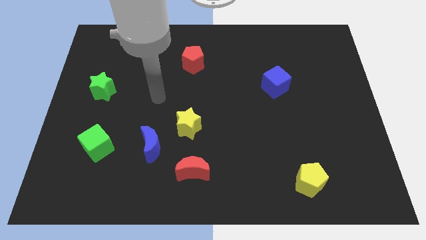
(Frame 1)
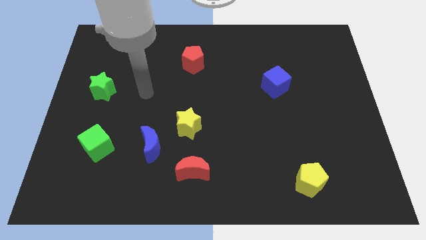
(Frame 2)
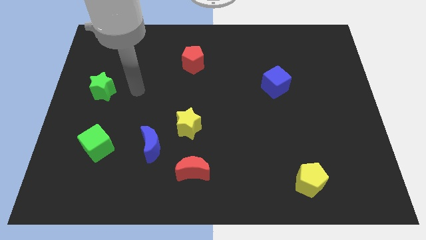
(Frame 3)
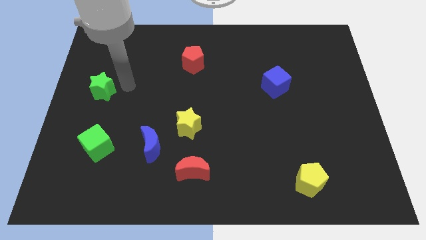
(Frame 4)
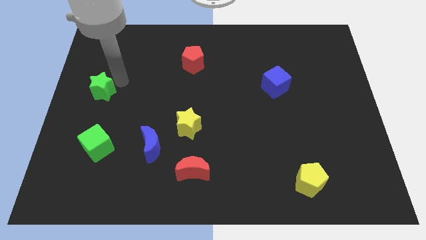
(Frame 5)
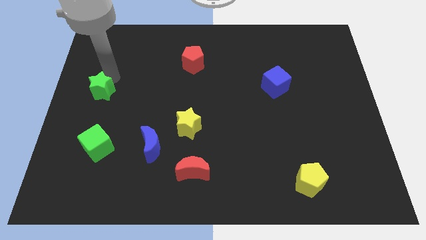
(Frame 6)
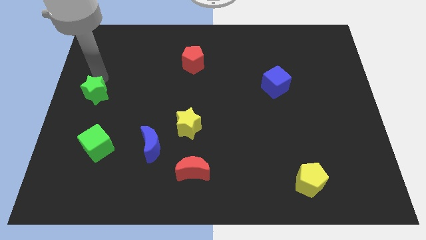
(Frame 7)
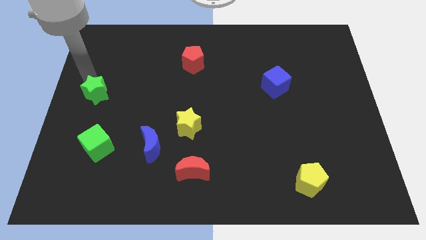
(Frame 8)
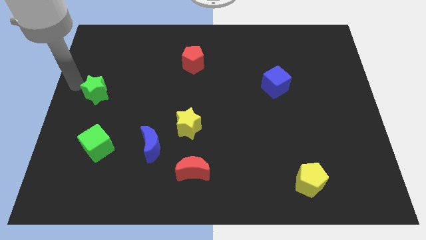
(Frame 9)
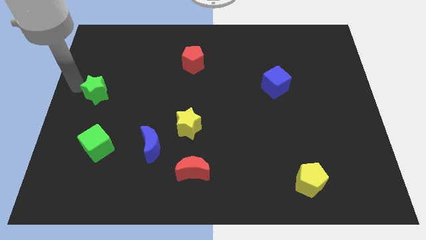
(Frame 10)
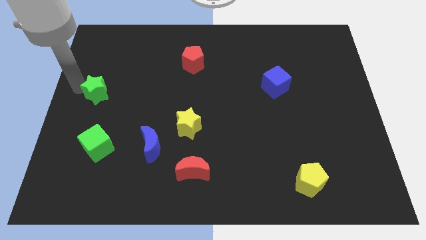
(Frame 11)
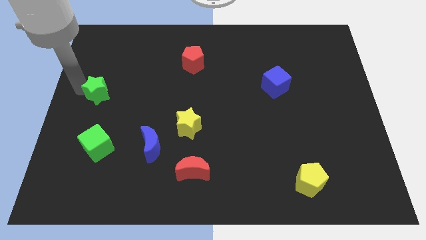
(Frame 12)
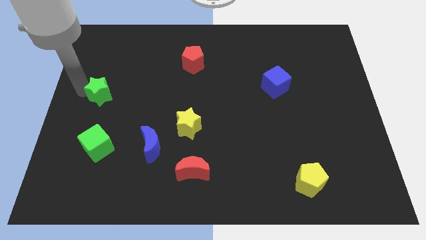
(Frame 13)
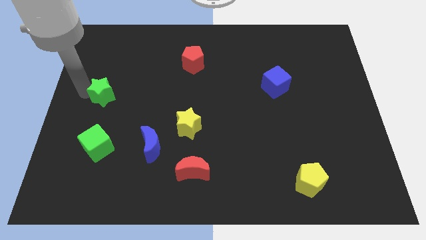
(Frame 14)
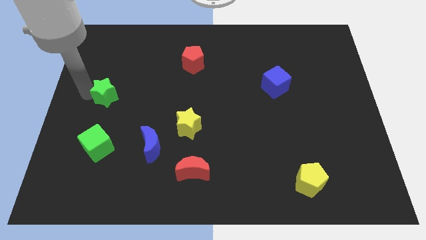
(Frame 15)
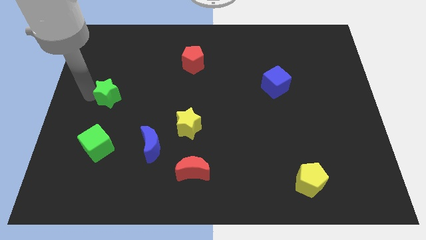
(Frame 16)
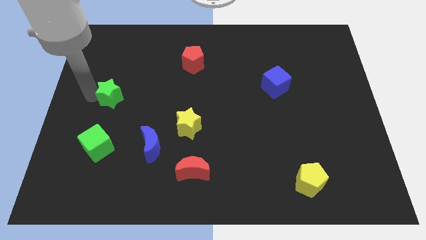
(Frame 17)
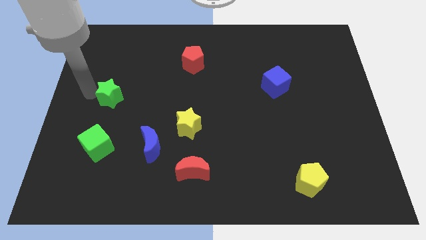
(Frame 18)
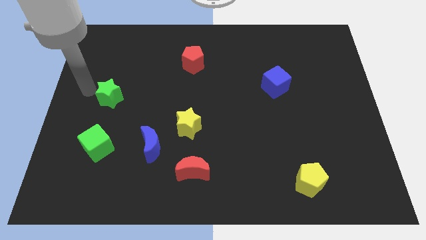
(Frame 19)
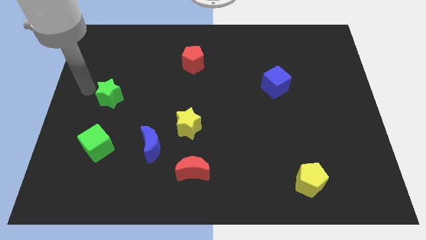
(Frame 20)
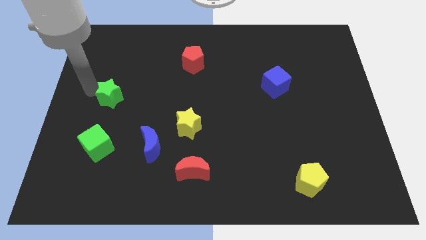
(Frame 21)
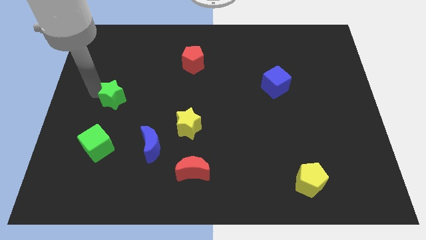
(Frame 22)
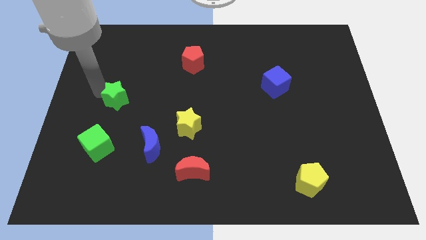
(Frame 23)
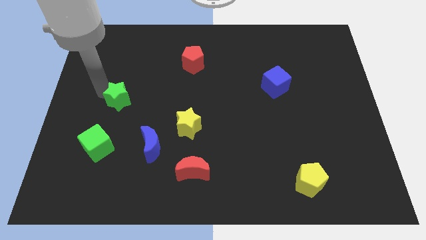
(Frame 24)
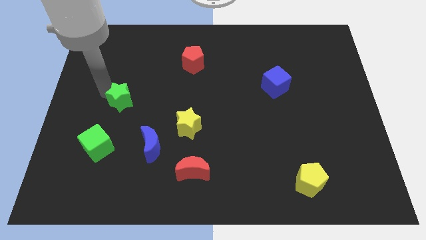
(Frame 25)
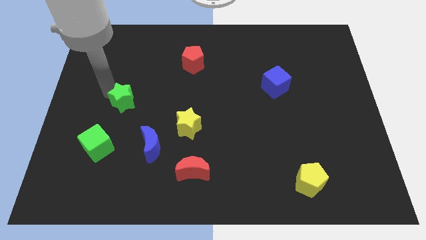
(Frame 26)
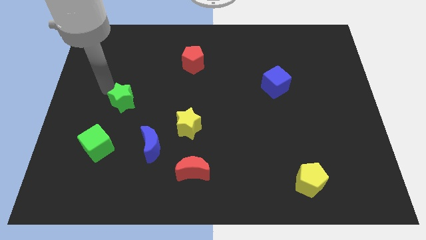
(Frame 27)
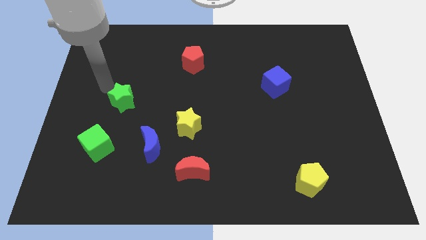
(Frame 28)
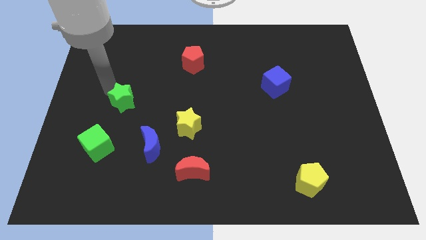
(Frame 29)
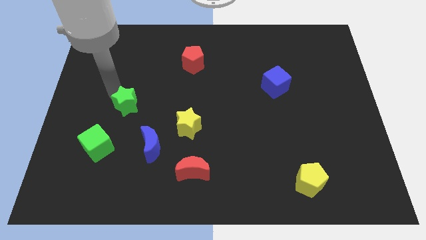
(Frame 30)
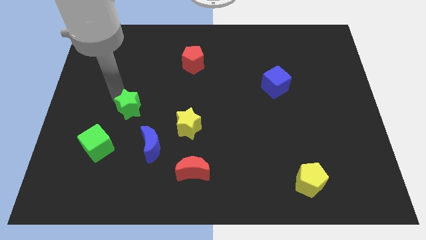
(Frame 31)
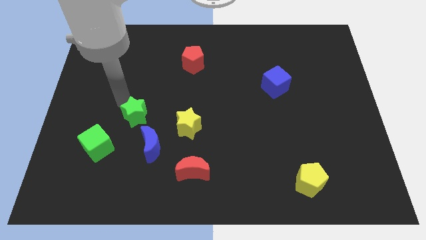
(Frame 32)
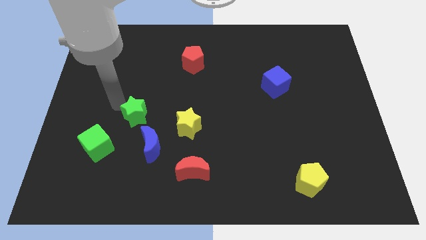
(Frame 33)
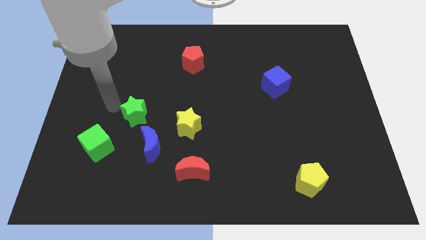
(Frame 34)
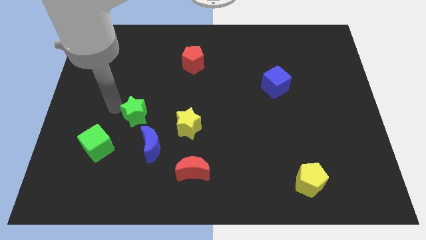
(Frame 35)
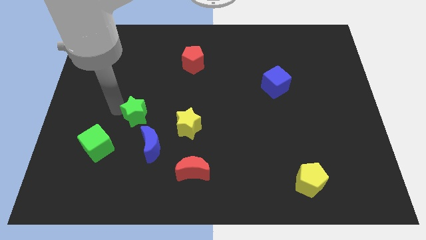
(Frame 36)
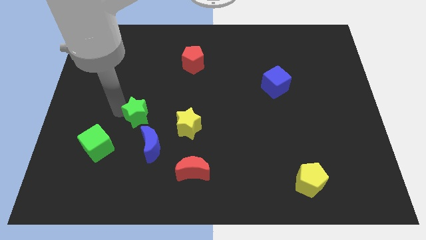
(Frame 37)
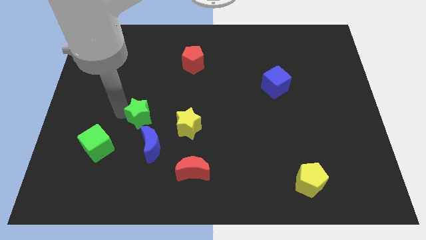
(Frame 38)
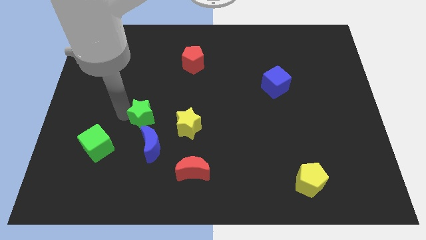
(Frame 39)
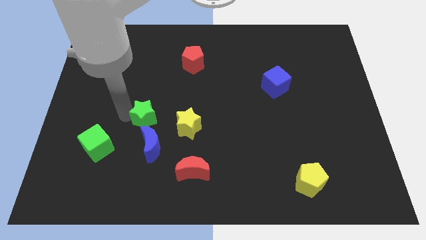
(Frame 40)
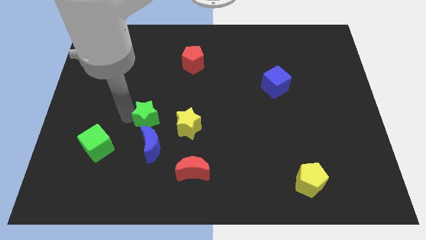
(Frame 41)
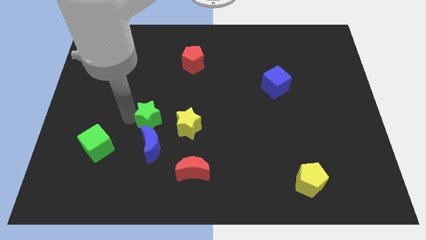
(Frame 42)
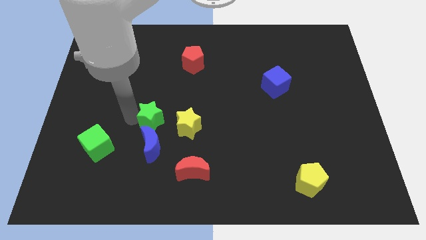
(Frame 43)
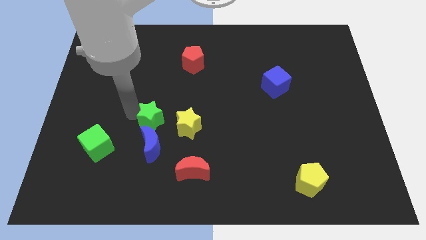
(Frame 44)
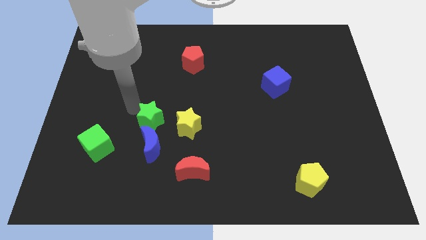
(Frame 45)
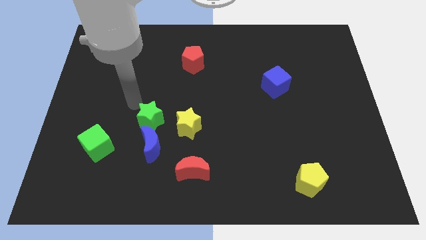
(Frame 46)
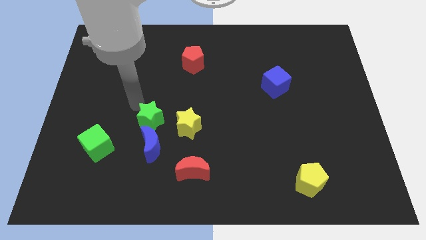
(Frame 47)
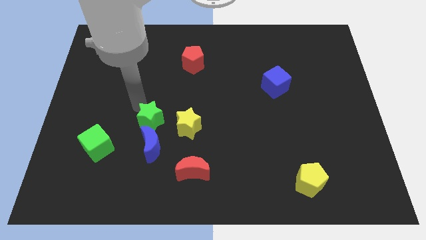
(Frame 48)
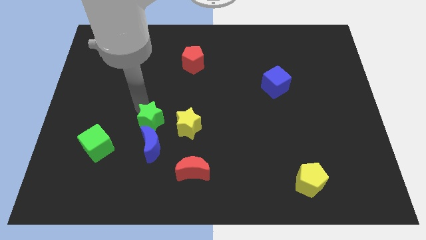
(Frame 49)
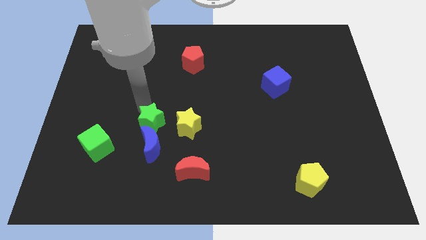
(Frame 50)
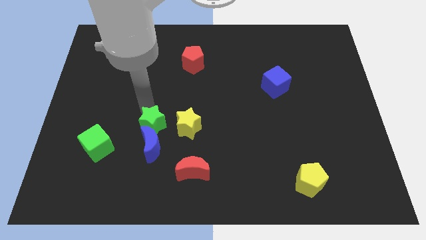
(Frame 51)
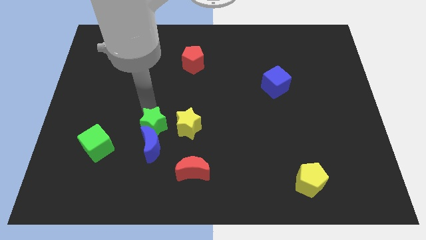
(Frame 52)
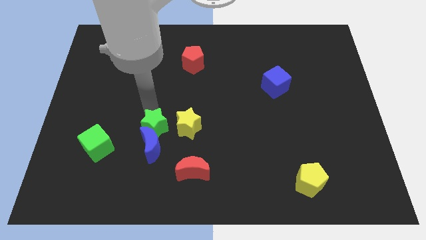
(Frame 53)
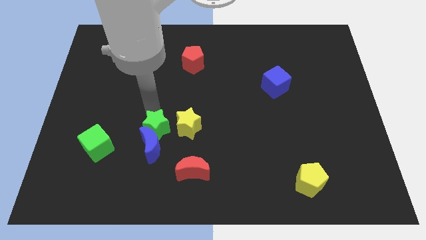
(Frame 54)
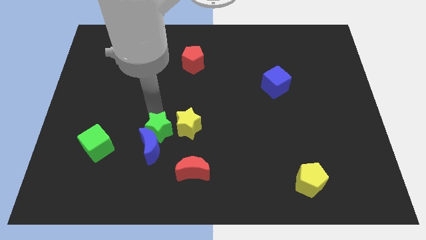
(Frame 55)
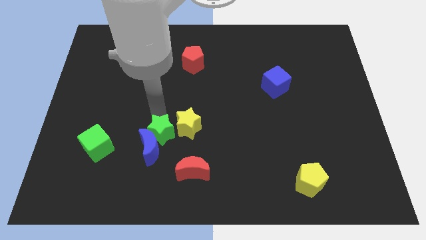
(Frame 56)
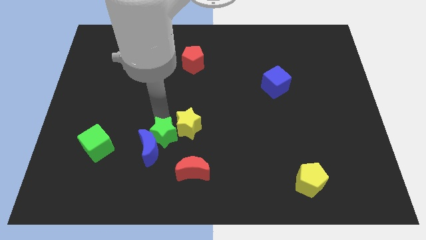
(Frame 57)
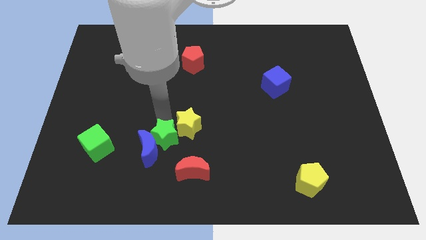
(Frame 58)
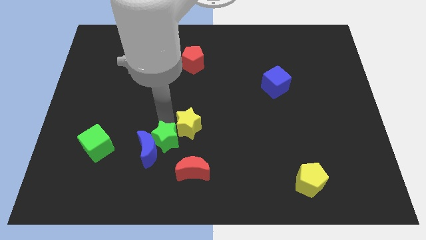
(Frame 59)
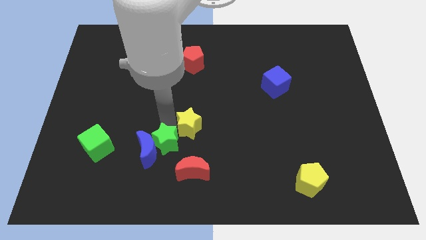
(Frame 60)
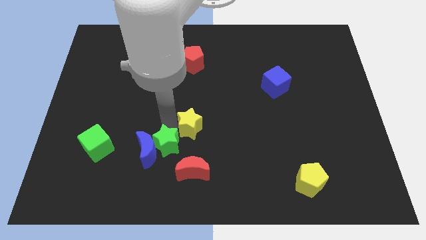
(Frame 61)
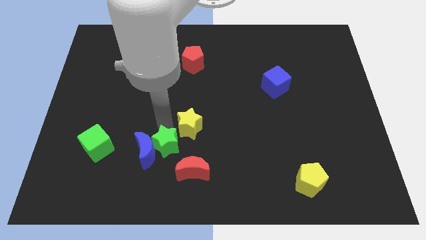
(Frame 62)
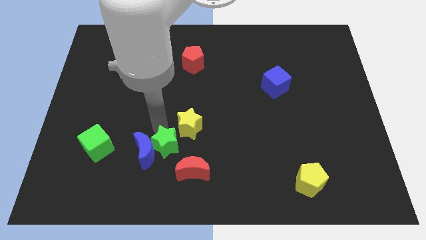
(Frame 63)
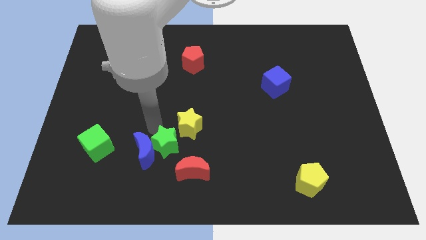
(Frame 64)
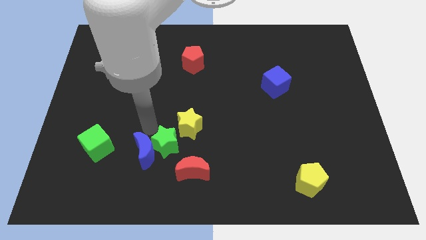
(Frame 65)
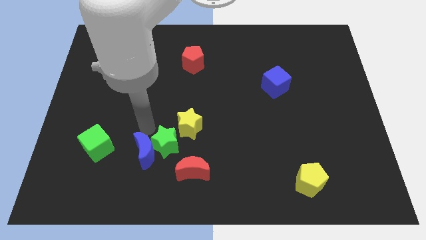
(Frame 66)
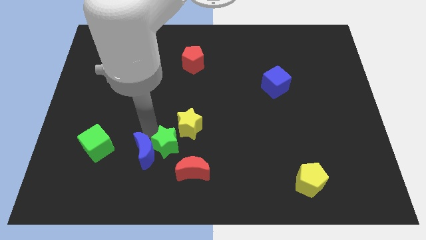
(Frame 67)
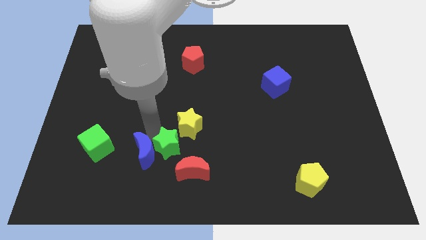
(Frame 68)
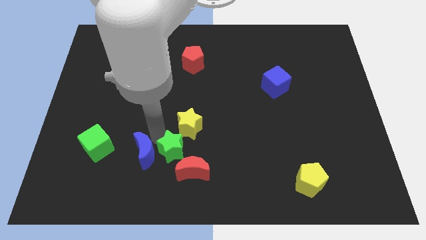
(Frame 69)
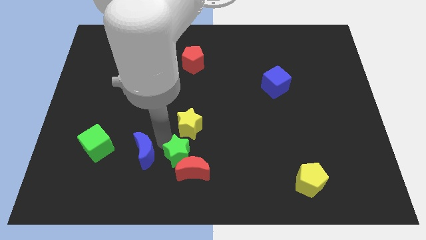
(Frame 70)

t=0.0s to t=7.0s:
move the green star towards the red moon
